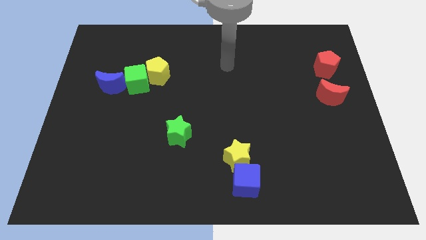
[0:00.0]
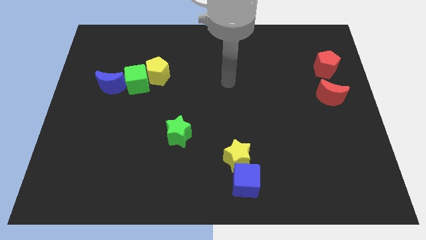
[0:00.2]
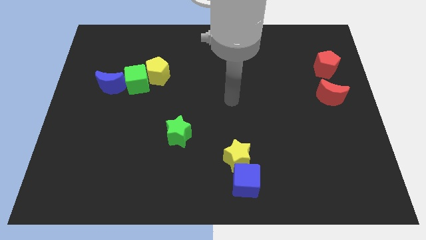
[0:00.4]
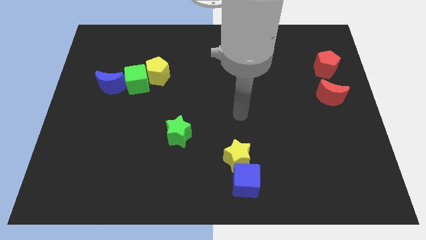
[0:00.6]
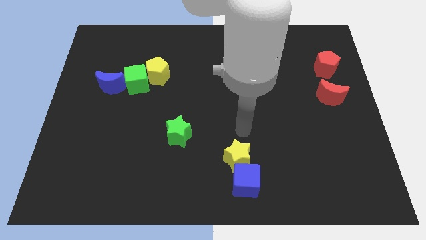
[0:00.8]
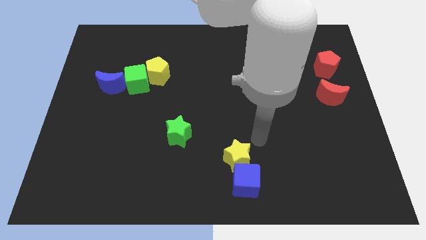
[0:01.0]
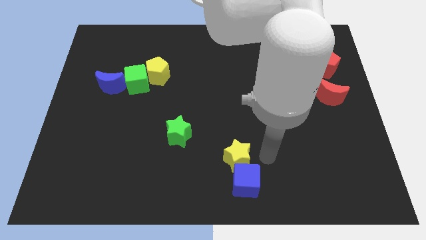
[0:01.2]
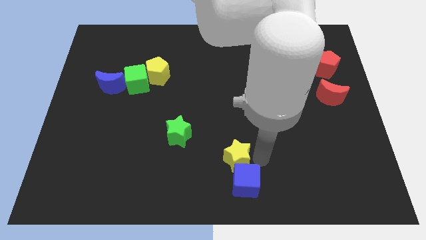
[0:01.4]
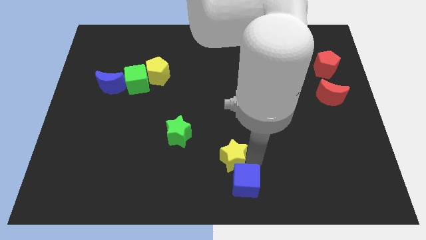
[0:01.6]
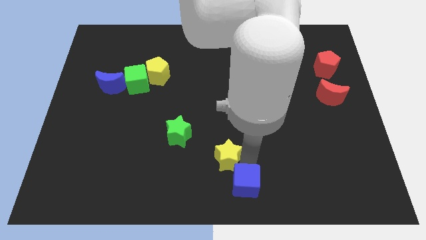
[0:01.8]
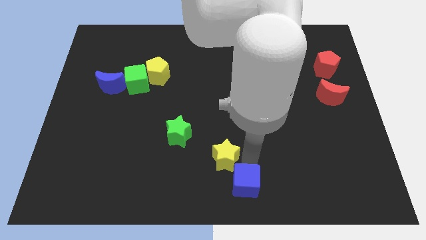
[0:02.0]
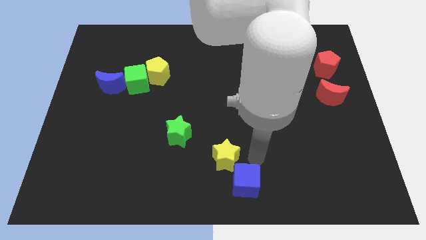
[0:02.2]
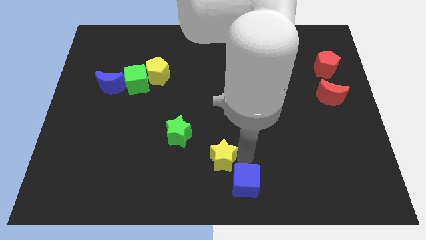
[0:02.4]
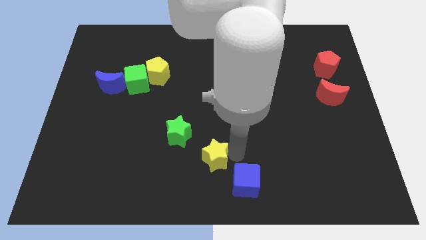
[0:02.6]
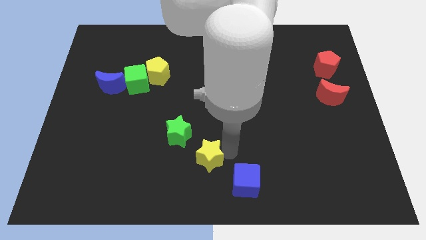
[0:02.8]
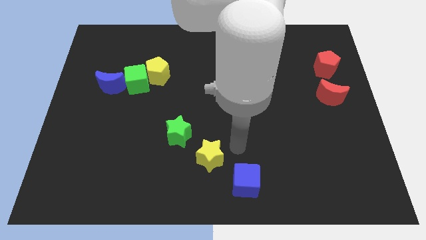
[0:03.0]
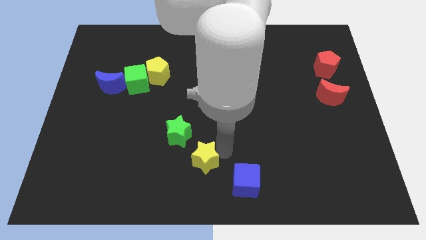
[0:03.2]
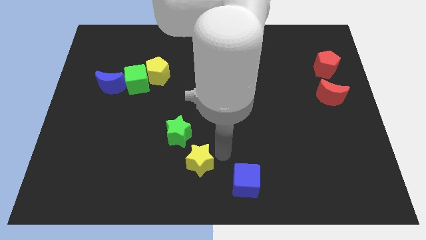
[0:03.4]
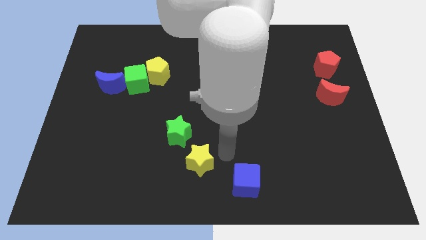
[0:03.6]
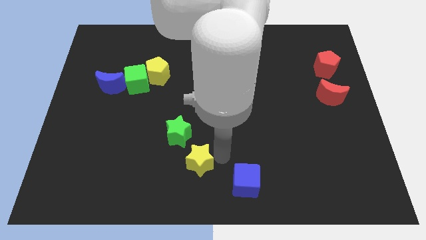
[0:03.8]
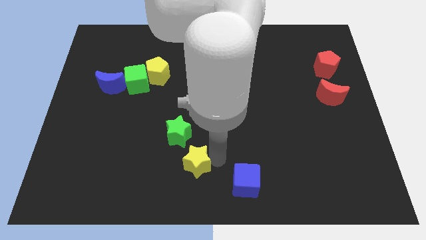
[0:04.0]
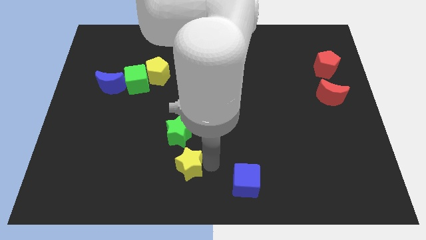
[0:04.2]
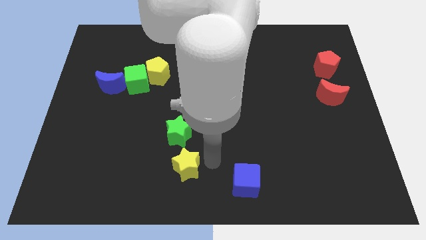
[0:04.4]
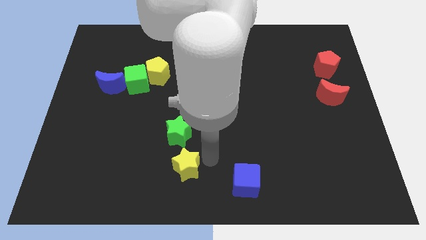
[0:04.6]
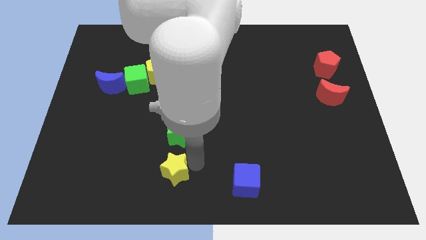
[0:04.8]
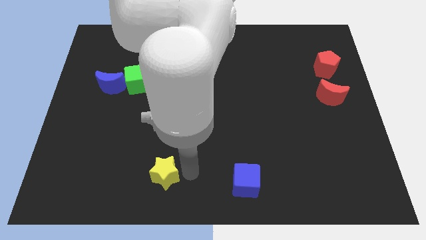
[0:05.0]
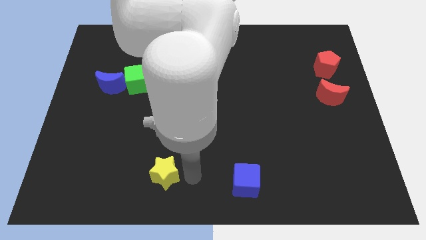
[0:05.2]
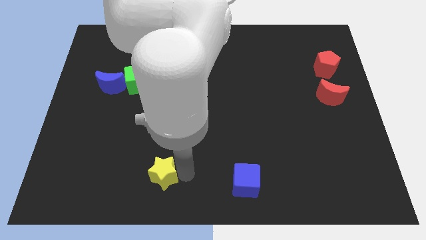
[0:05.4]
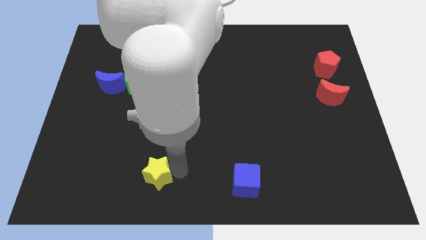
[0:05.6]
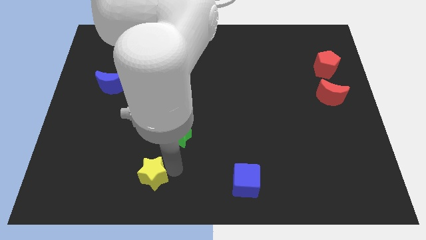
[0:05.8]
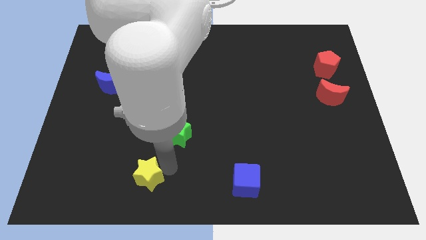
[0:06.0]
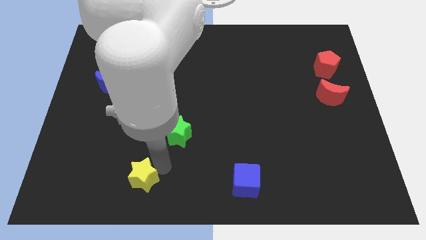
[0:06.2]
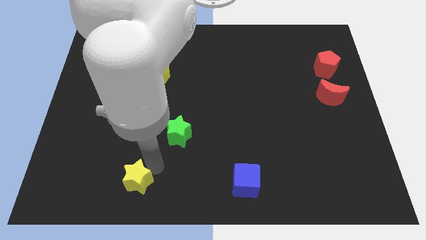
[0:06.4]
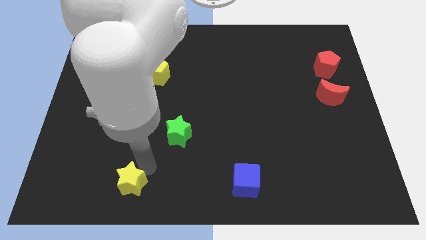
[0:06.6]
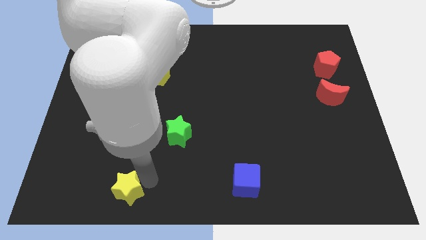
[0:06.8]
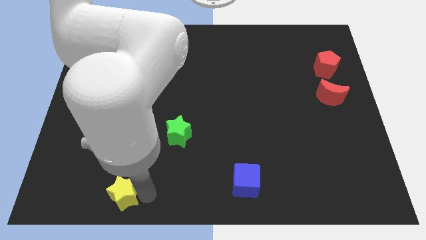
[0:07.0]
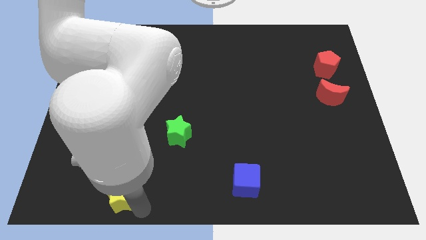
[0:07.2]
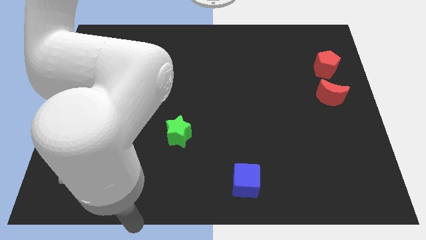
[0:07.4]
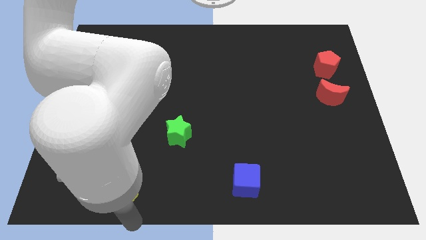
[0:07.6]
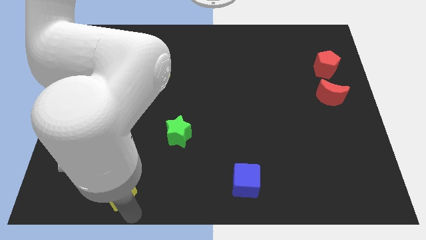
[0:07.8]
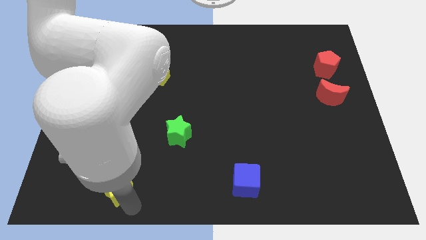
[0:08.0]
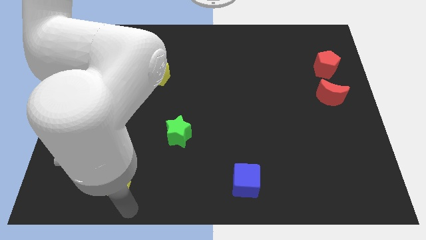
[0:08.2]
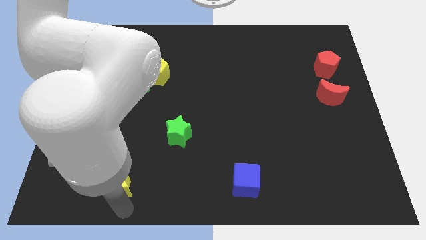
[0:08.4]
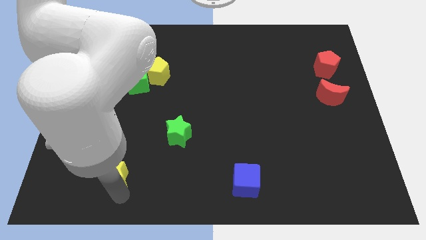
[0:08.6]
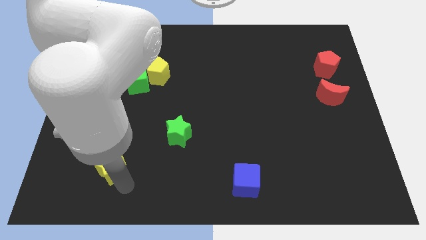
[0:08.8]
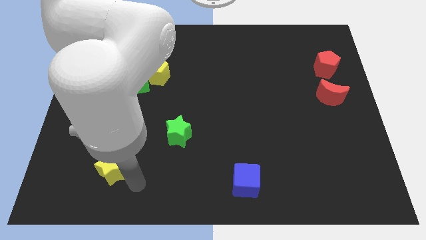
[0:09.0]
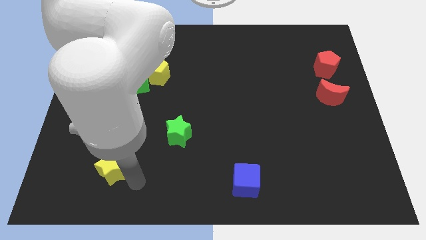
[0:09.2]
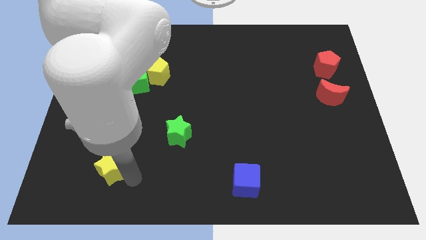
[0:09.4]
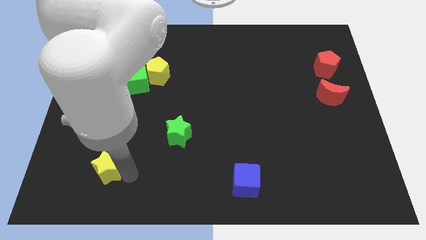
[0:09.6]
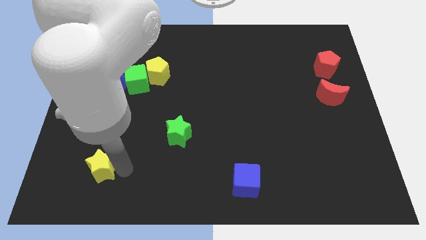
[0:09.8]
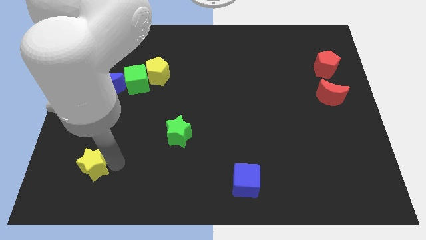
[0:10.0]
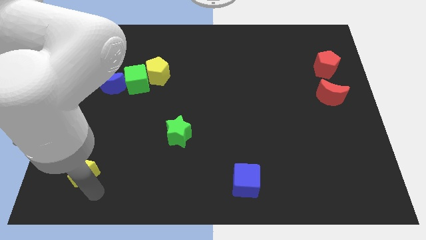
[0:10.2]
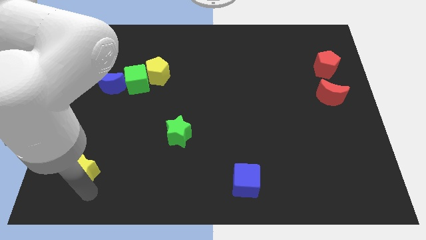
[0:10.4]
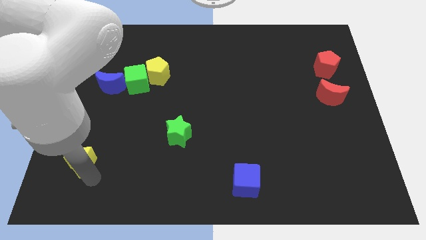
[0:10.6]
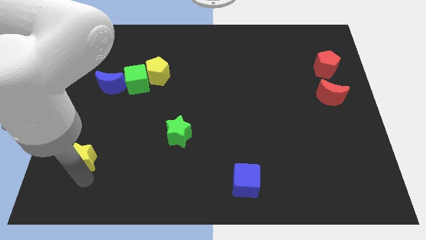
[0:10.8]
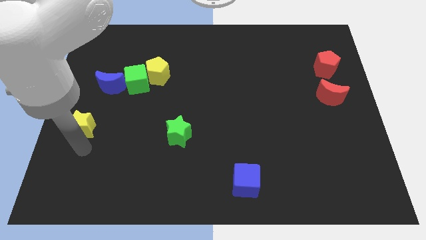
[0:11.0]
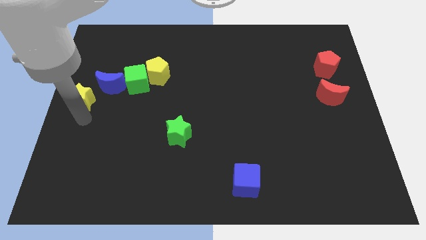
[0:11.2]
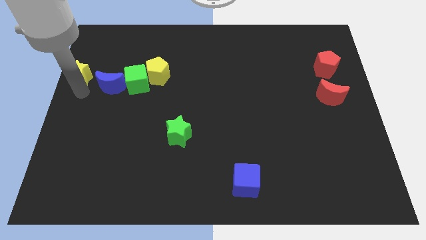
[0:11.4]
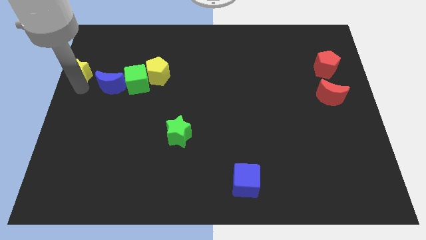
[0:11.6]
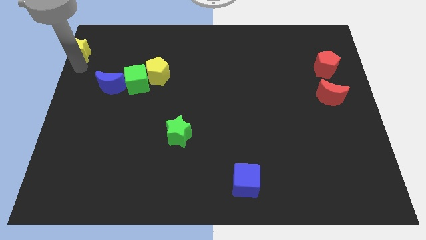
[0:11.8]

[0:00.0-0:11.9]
move the yellow star to the top left of the board
